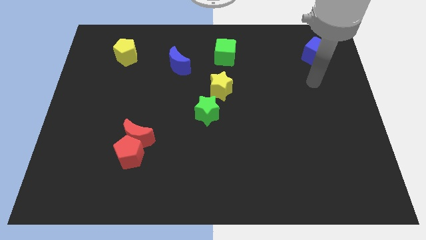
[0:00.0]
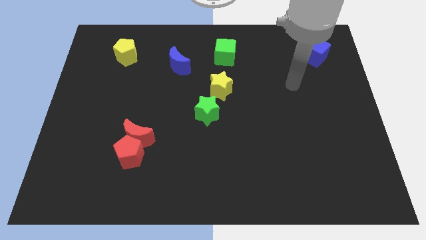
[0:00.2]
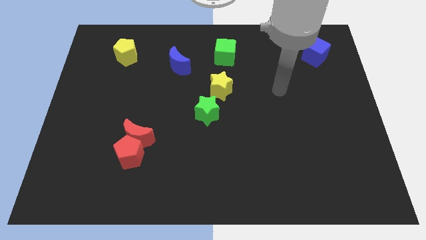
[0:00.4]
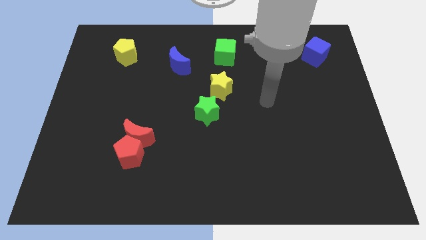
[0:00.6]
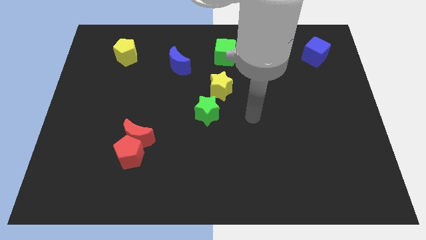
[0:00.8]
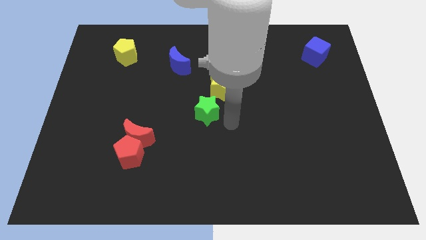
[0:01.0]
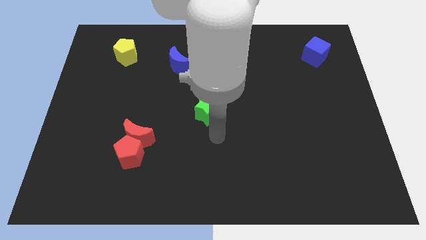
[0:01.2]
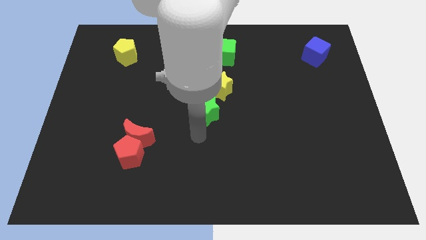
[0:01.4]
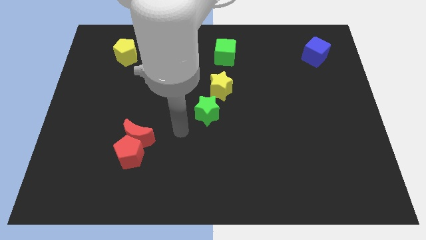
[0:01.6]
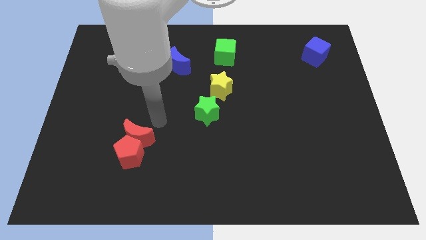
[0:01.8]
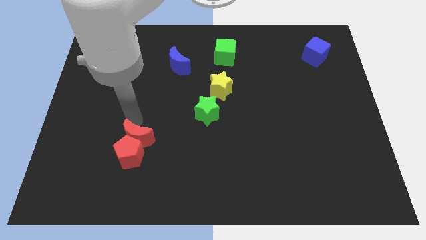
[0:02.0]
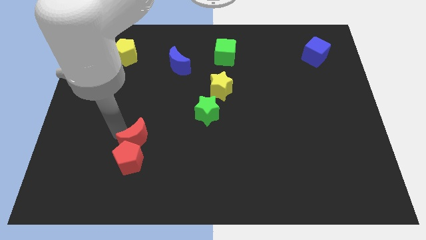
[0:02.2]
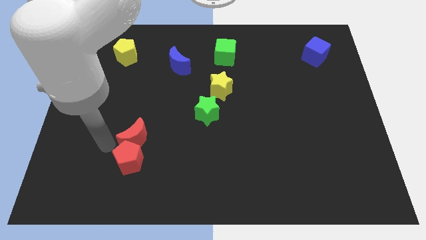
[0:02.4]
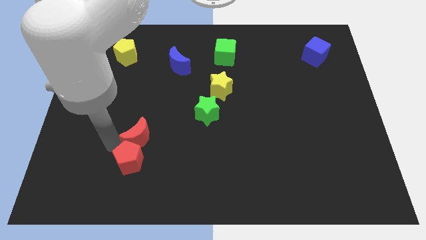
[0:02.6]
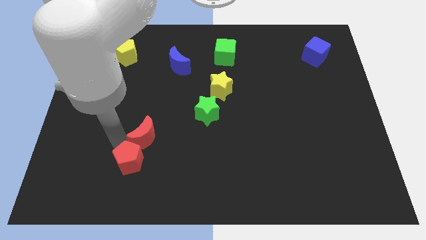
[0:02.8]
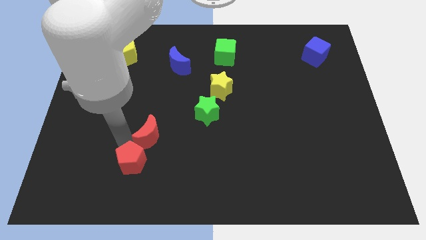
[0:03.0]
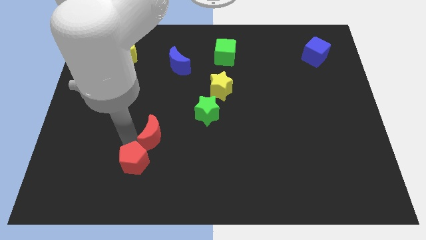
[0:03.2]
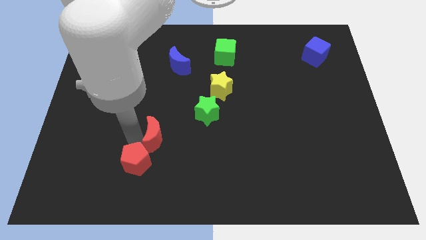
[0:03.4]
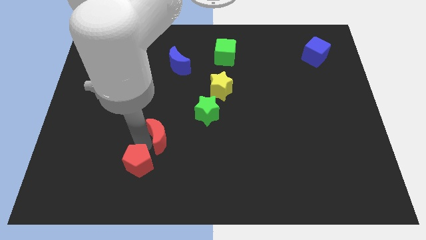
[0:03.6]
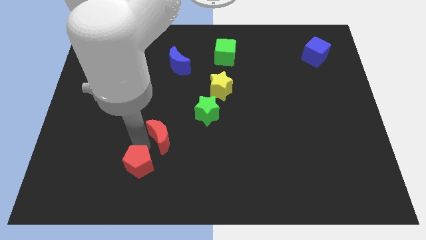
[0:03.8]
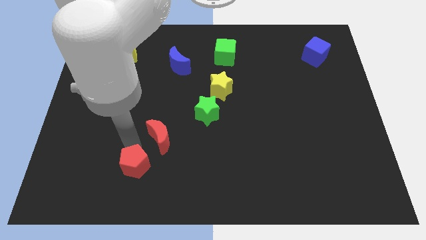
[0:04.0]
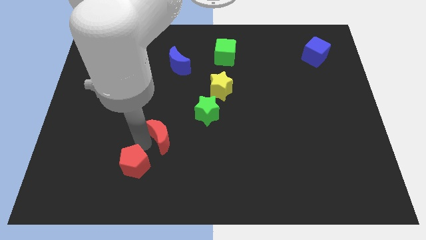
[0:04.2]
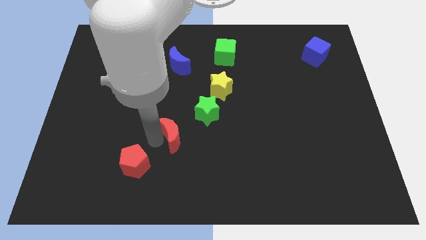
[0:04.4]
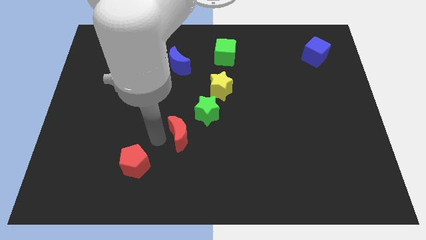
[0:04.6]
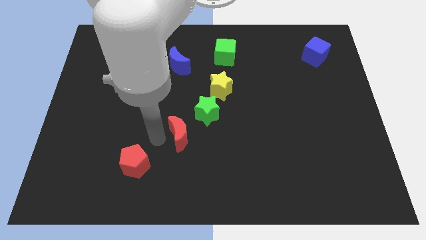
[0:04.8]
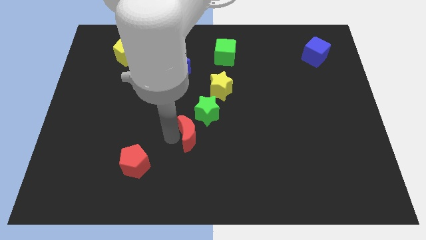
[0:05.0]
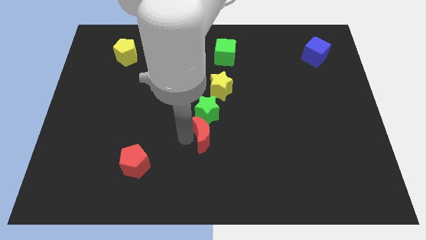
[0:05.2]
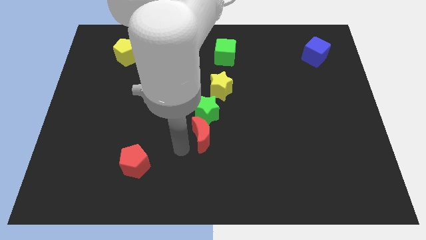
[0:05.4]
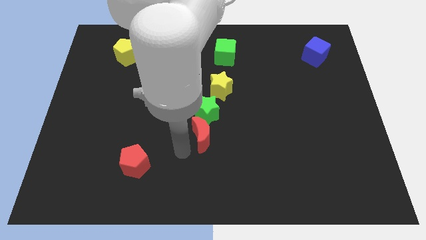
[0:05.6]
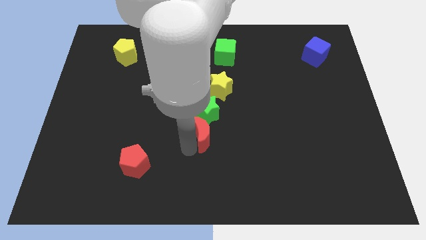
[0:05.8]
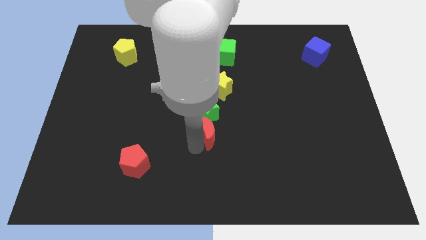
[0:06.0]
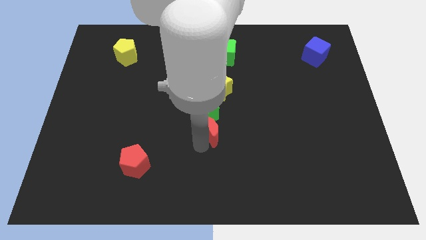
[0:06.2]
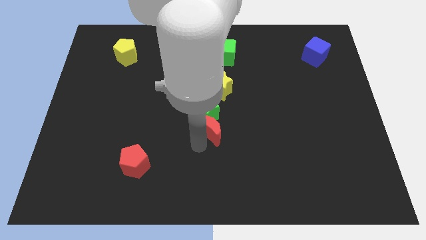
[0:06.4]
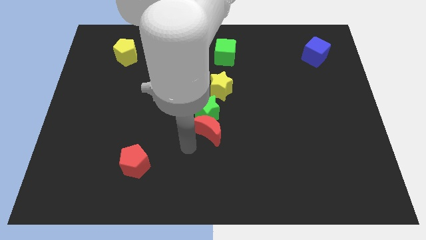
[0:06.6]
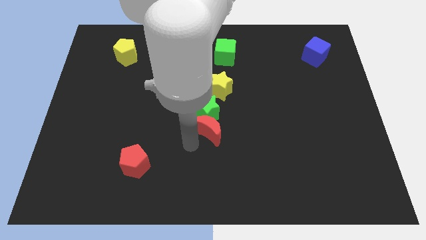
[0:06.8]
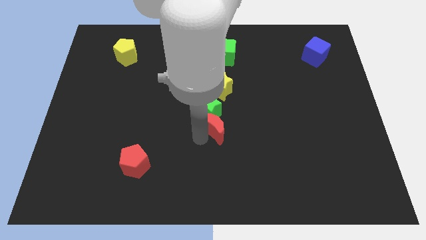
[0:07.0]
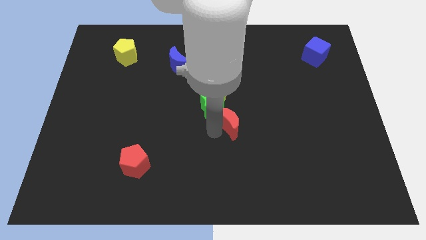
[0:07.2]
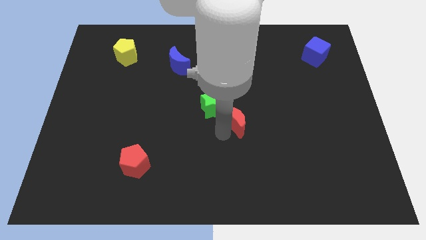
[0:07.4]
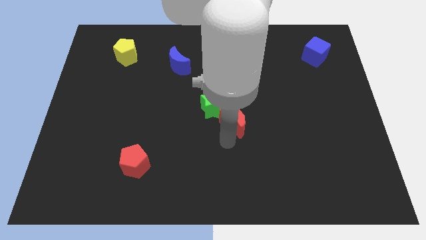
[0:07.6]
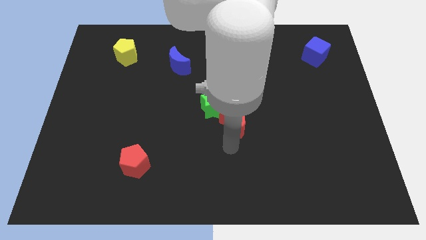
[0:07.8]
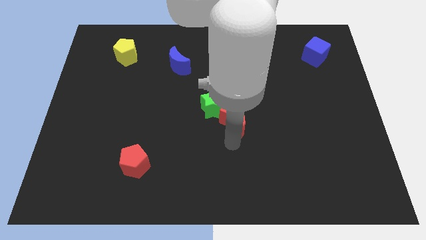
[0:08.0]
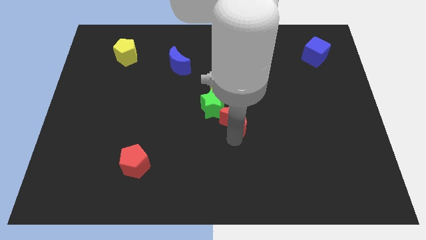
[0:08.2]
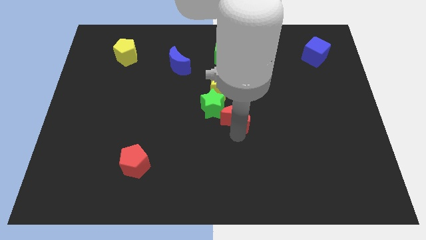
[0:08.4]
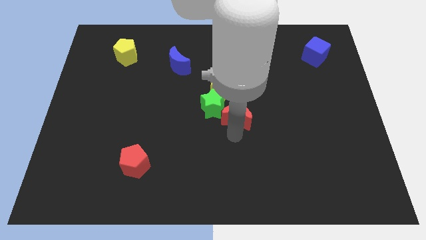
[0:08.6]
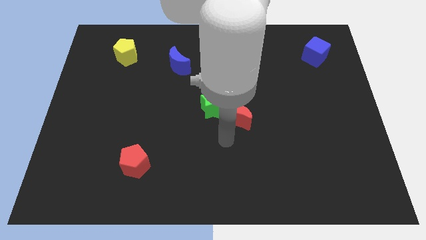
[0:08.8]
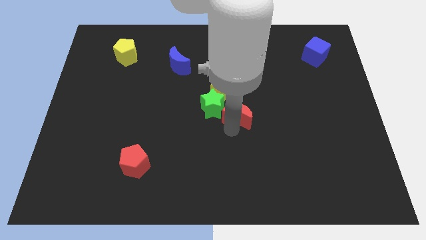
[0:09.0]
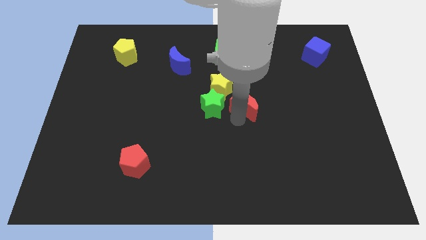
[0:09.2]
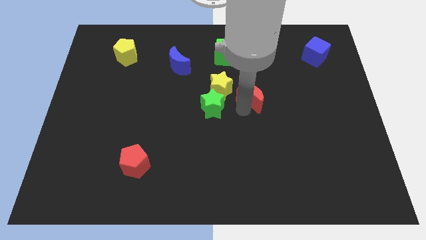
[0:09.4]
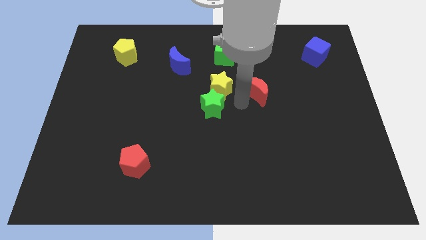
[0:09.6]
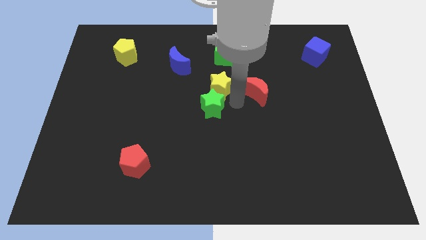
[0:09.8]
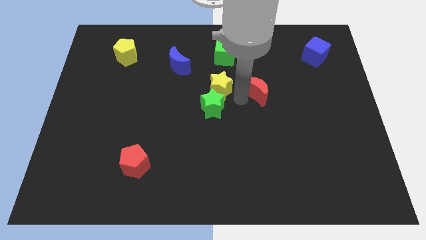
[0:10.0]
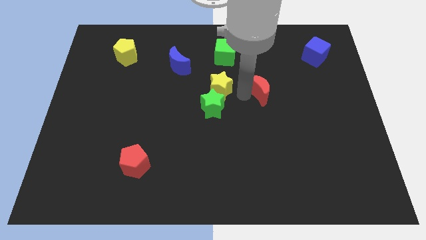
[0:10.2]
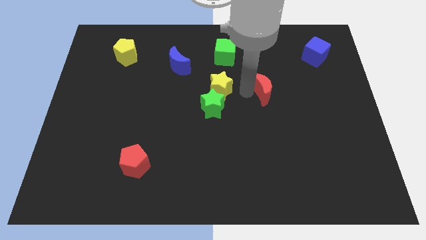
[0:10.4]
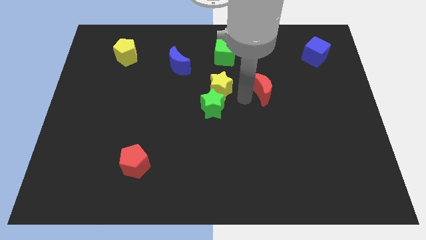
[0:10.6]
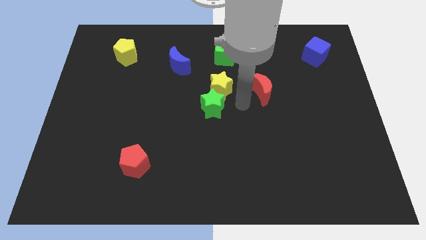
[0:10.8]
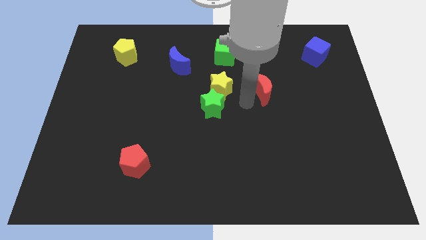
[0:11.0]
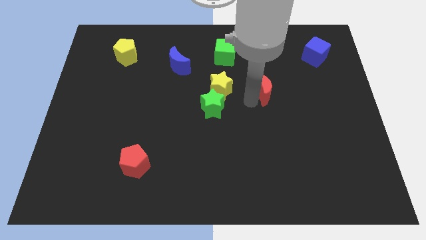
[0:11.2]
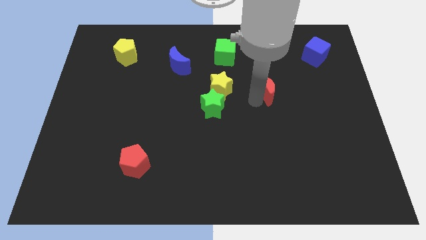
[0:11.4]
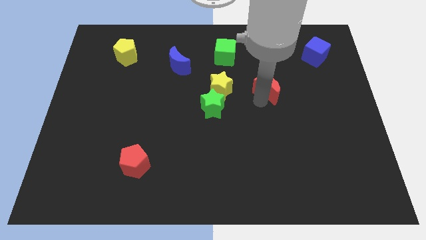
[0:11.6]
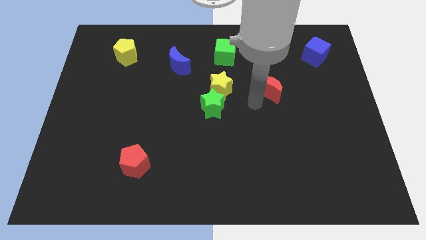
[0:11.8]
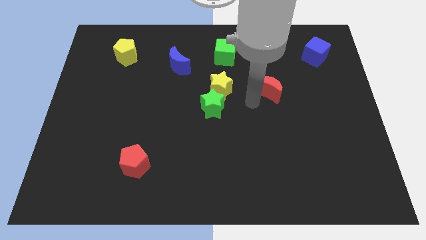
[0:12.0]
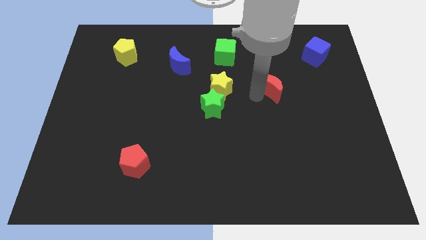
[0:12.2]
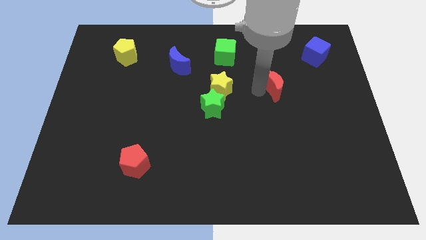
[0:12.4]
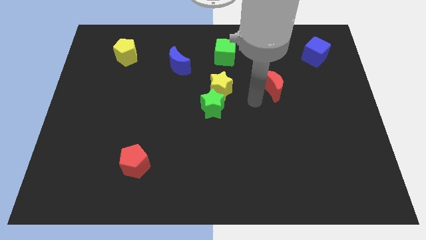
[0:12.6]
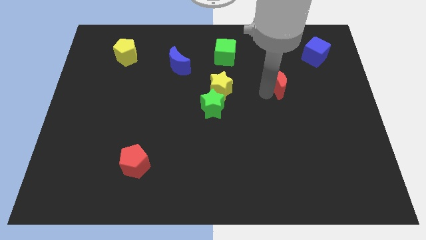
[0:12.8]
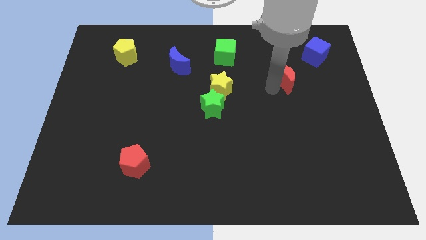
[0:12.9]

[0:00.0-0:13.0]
push the red moon to the bottom left side of the blue cube
